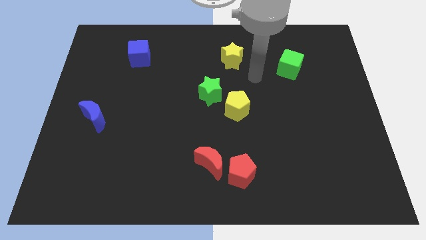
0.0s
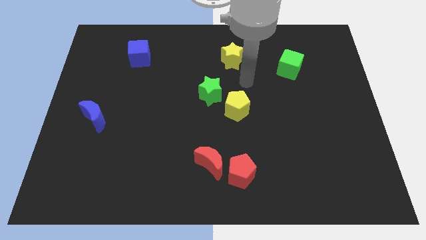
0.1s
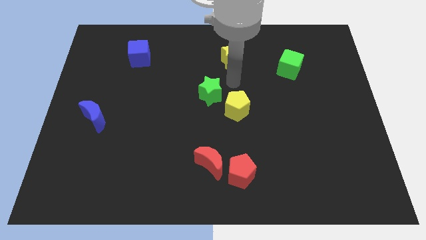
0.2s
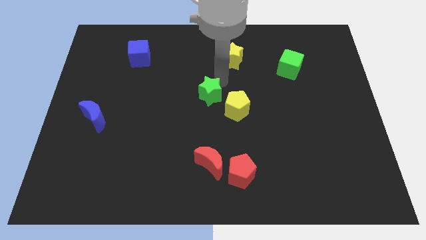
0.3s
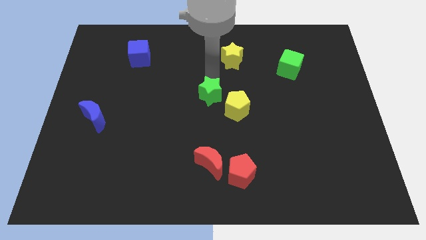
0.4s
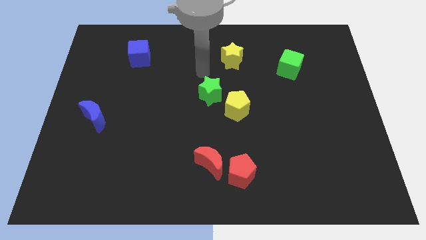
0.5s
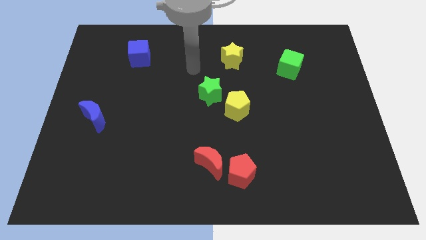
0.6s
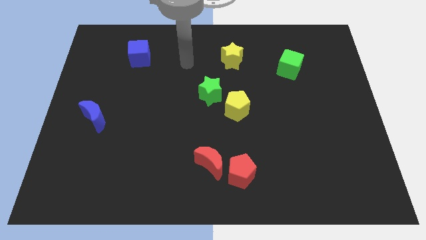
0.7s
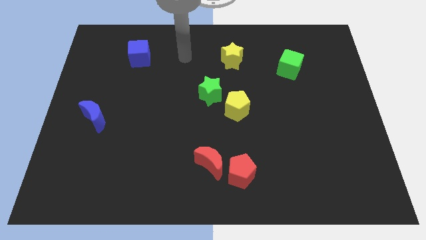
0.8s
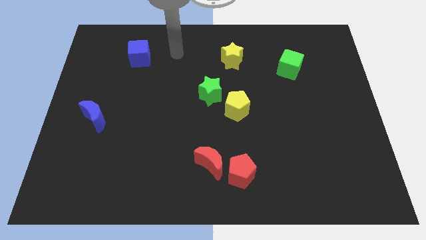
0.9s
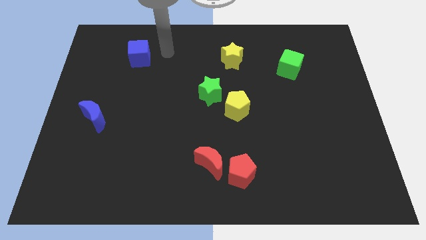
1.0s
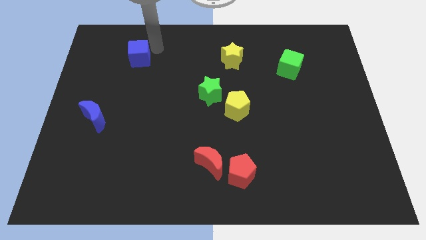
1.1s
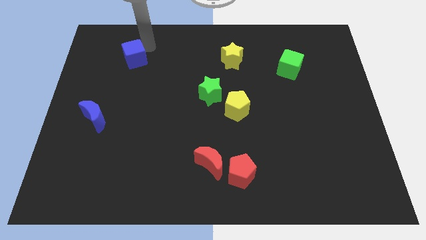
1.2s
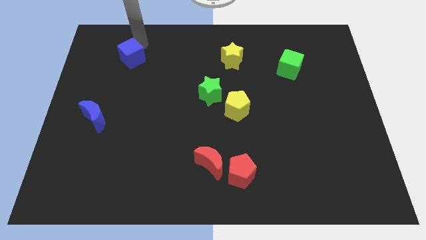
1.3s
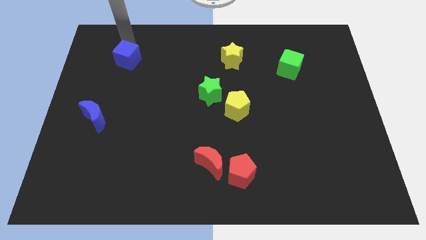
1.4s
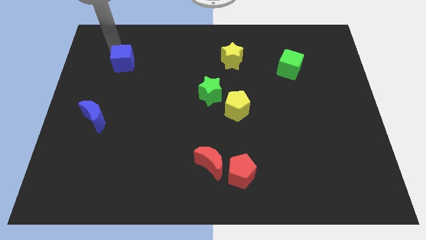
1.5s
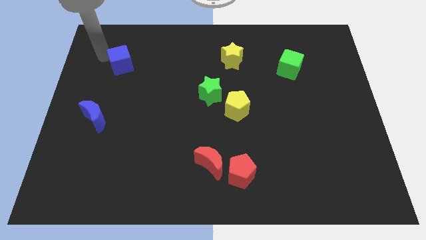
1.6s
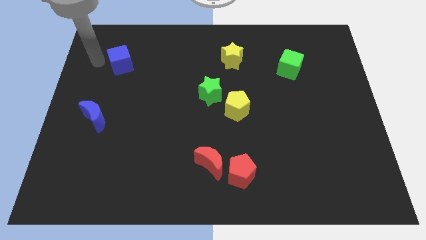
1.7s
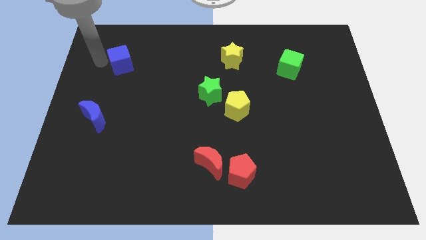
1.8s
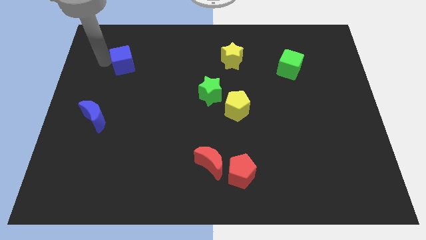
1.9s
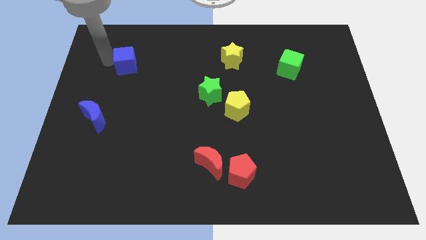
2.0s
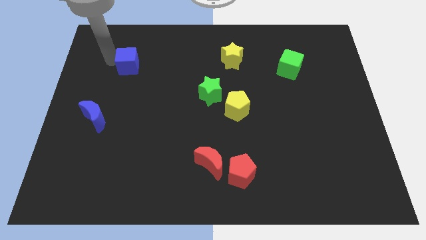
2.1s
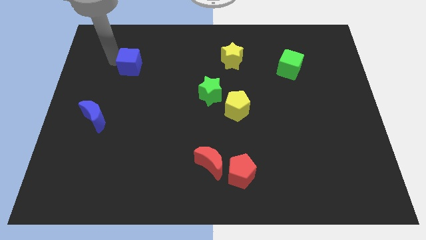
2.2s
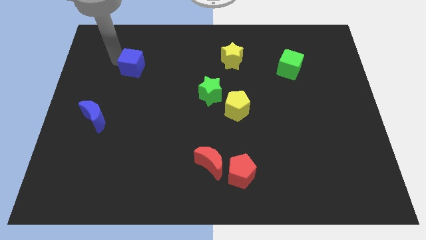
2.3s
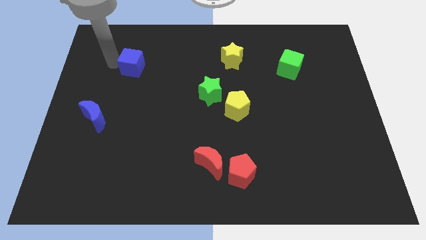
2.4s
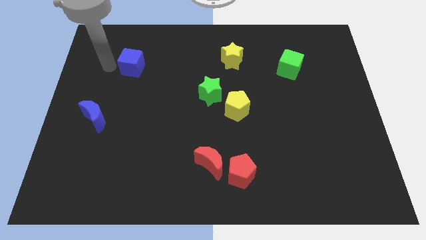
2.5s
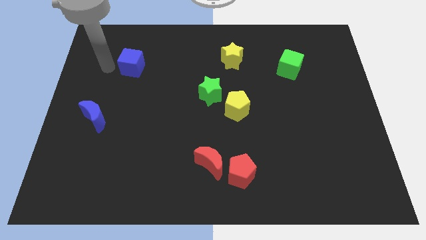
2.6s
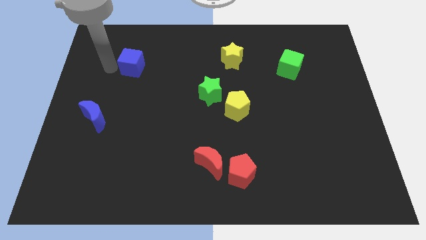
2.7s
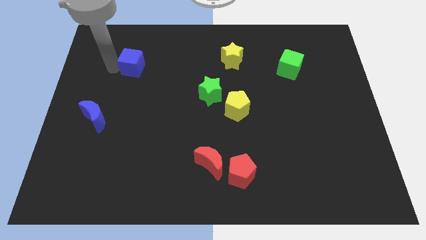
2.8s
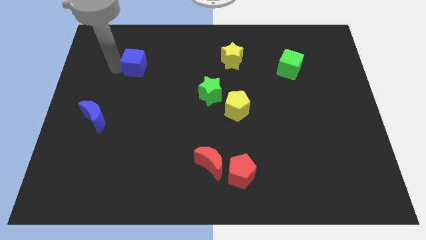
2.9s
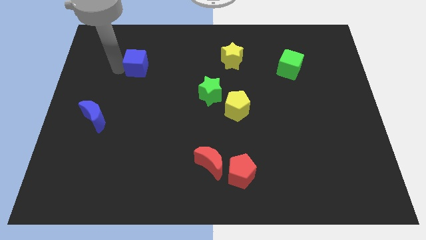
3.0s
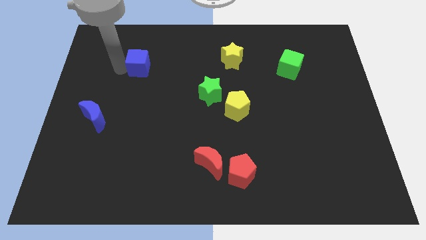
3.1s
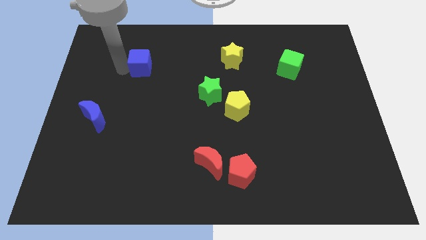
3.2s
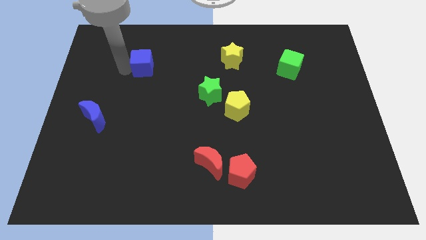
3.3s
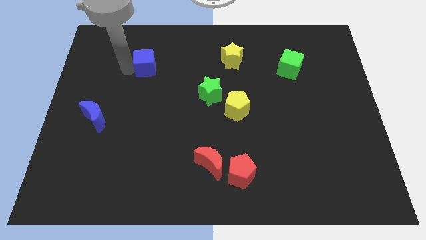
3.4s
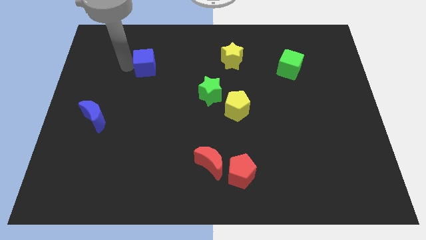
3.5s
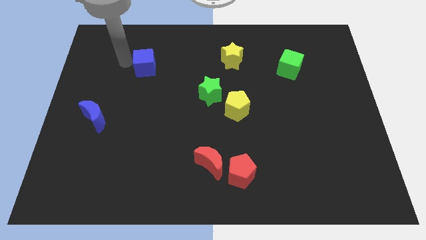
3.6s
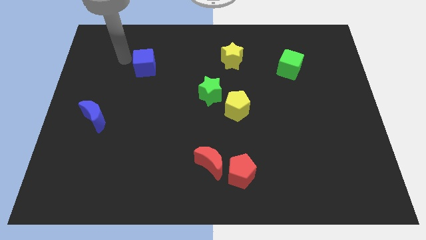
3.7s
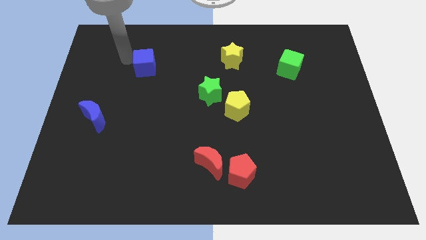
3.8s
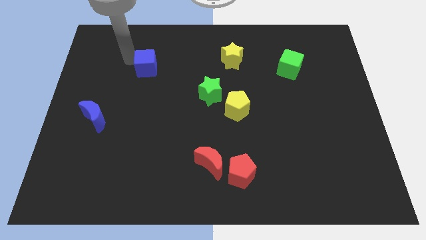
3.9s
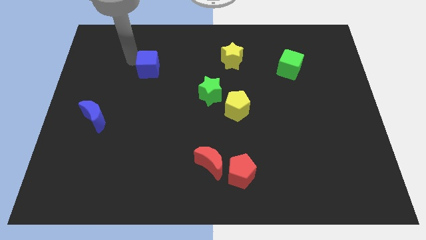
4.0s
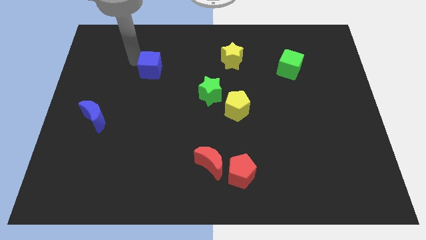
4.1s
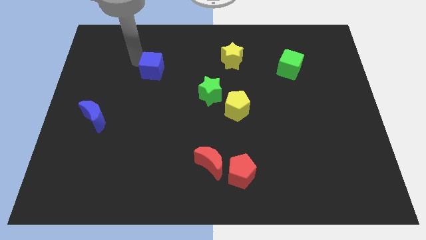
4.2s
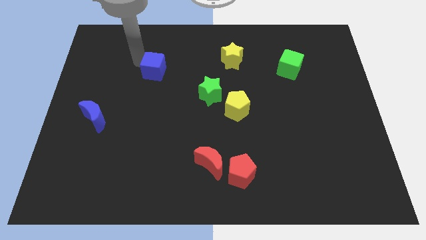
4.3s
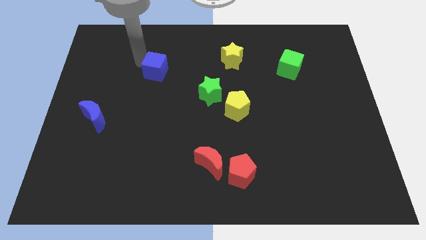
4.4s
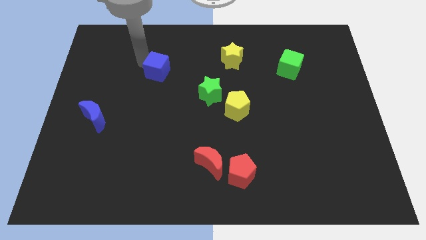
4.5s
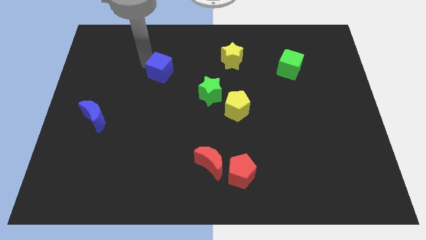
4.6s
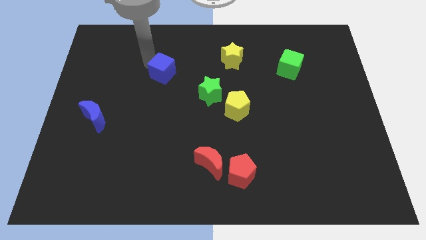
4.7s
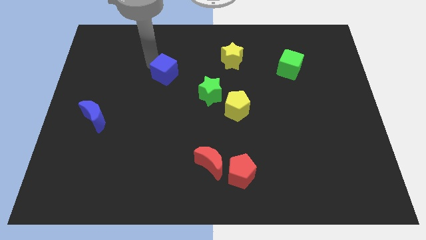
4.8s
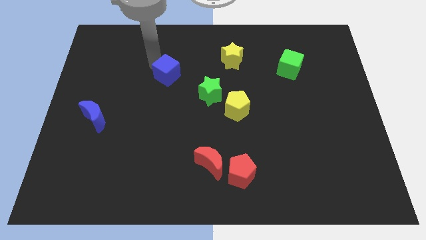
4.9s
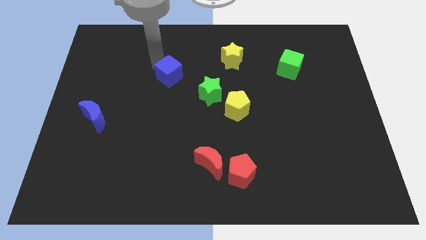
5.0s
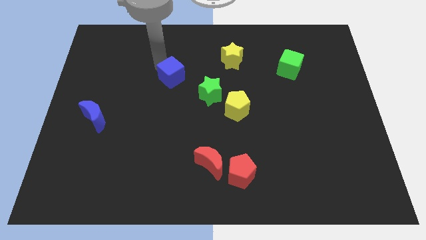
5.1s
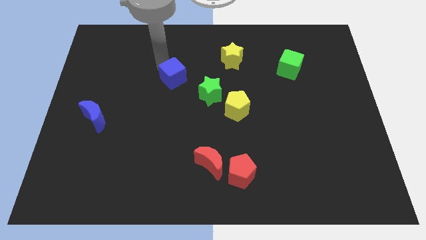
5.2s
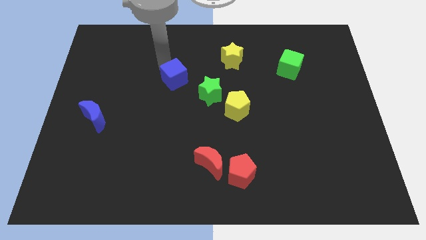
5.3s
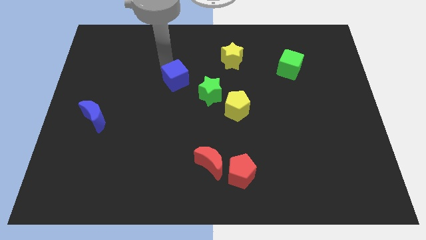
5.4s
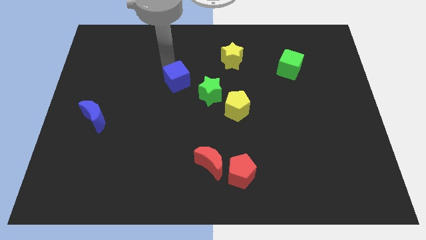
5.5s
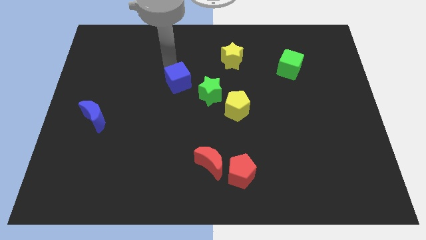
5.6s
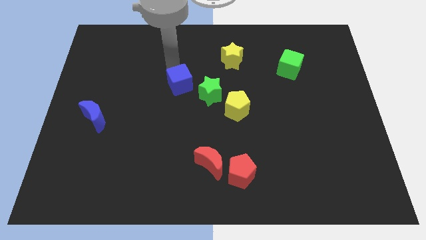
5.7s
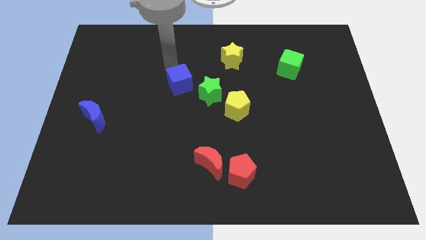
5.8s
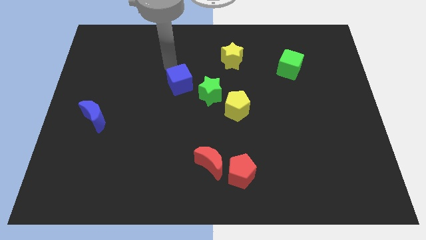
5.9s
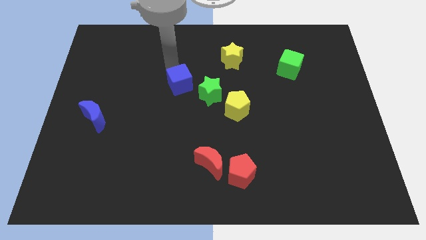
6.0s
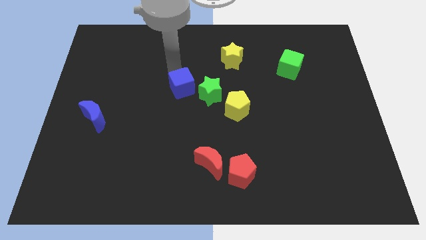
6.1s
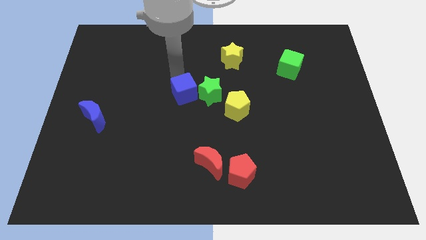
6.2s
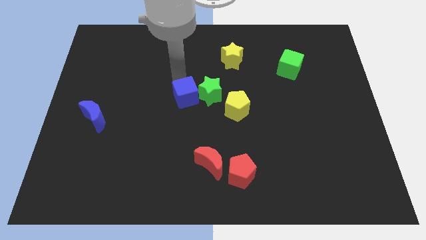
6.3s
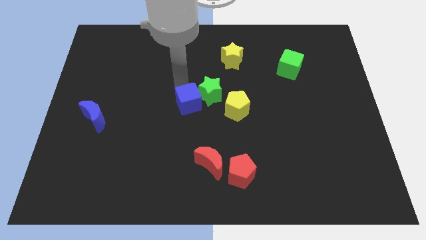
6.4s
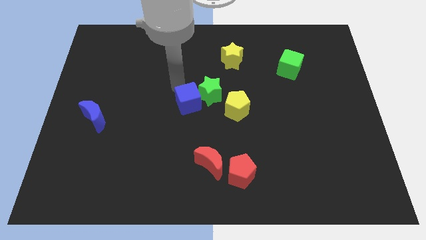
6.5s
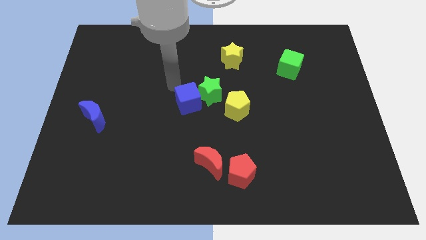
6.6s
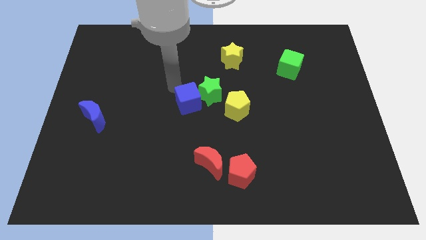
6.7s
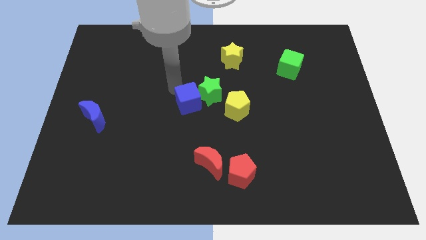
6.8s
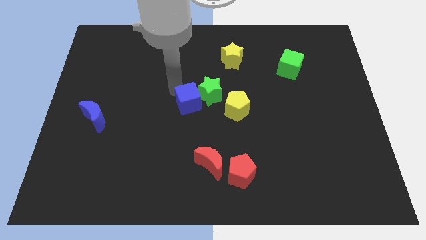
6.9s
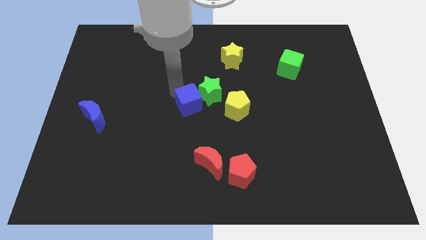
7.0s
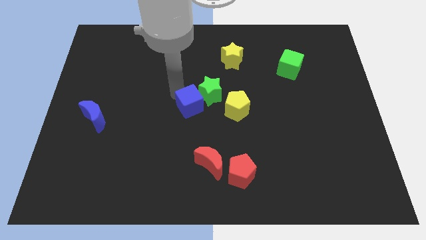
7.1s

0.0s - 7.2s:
slide the blue cube below the green star

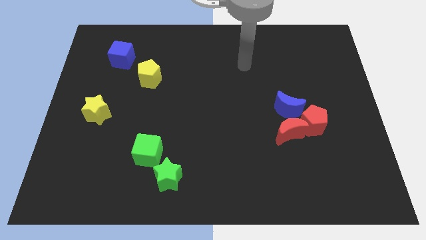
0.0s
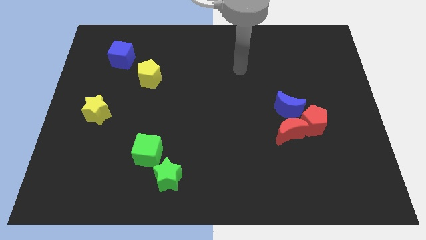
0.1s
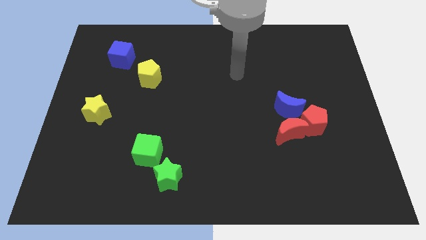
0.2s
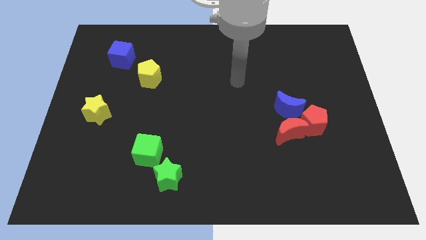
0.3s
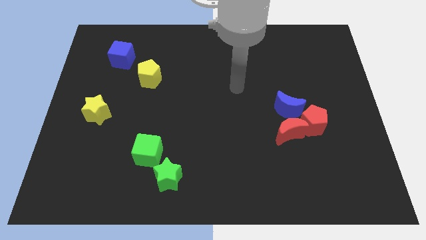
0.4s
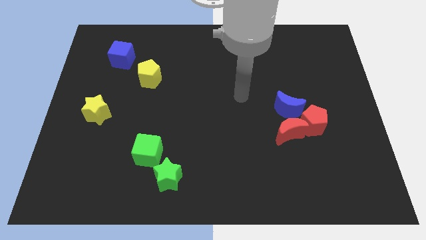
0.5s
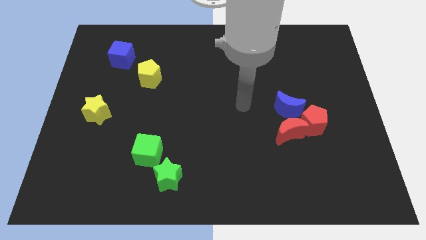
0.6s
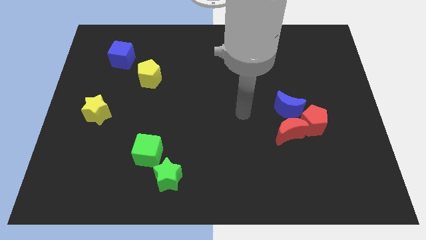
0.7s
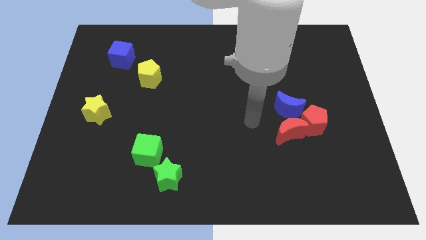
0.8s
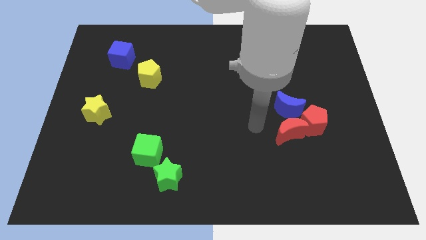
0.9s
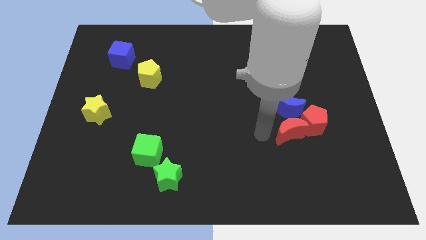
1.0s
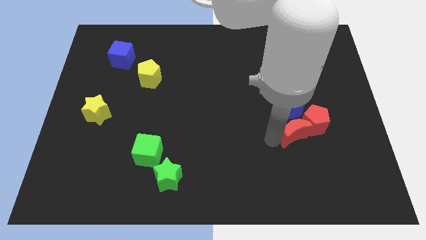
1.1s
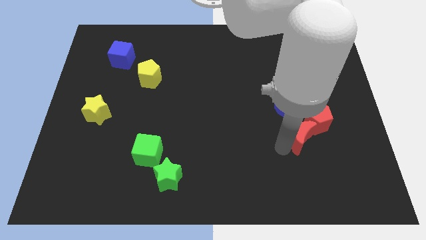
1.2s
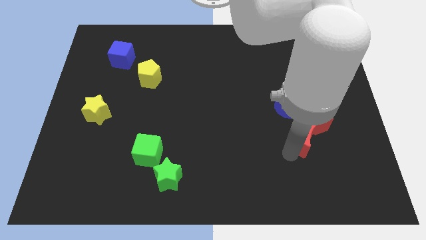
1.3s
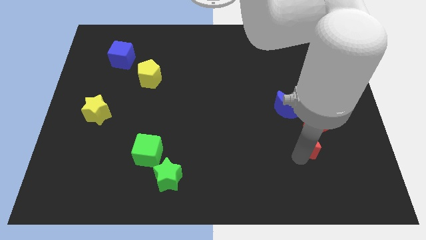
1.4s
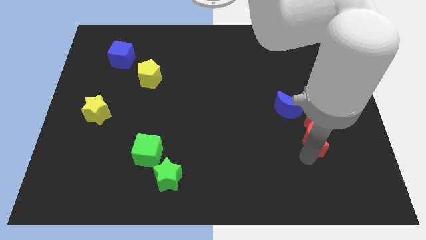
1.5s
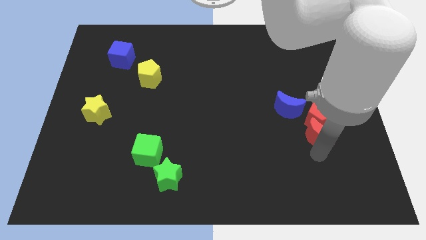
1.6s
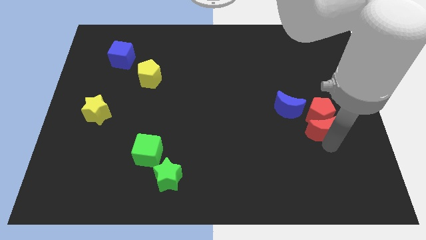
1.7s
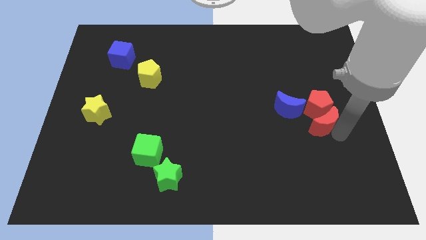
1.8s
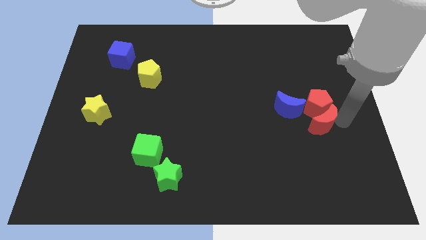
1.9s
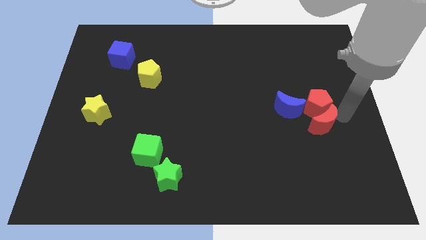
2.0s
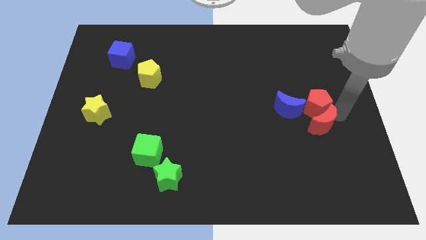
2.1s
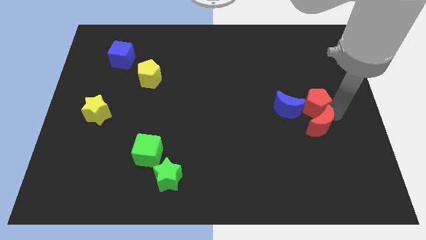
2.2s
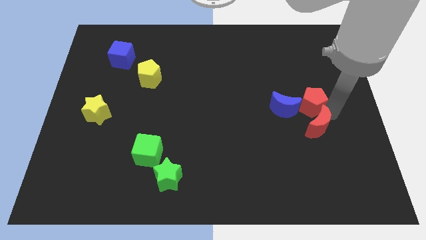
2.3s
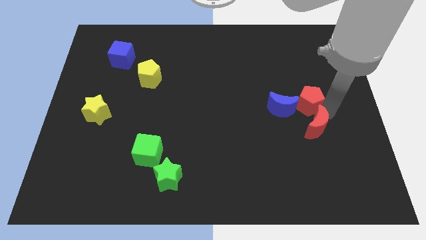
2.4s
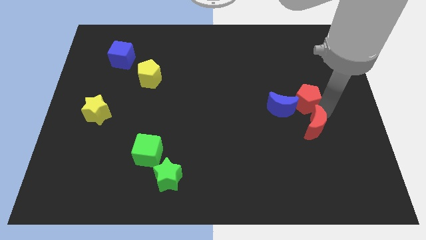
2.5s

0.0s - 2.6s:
slide the red pentagon diagonally up and to the left of the red moon
